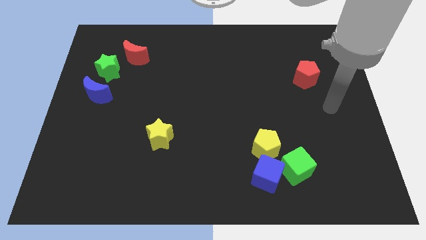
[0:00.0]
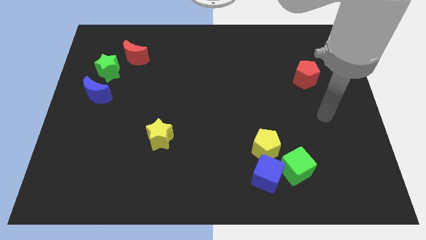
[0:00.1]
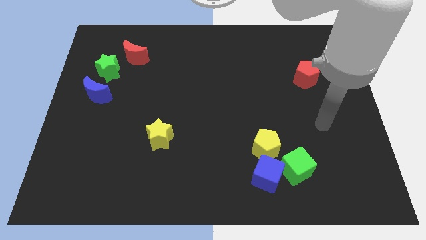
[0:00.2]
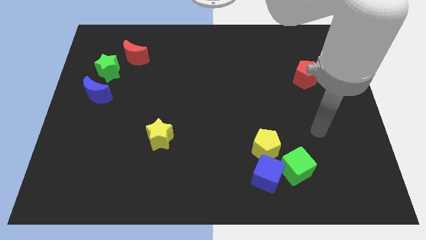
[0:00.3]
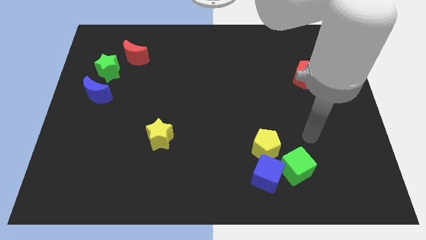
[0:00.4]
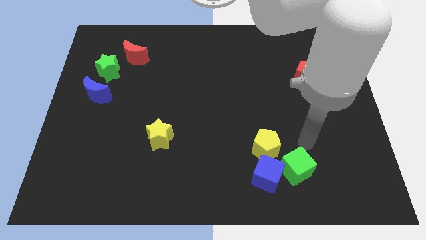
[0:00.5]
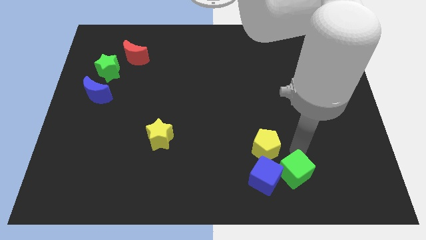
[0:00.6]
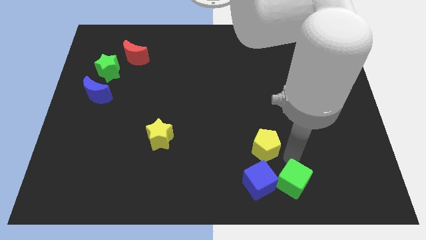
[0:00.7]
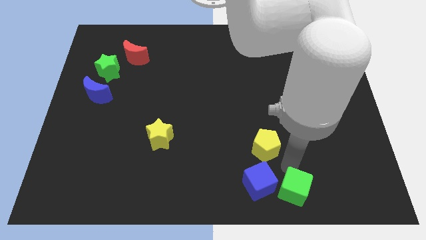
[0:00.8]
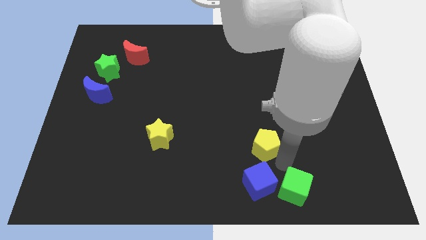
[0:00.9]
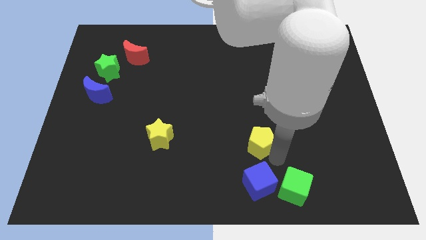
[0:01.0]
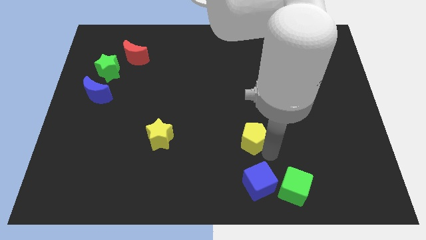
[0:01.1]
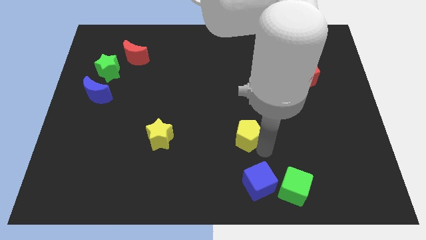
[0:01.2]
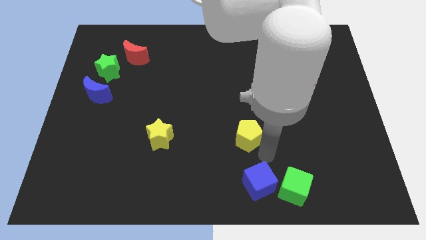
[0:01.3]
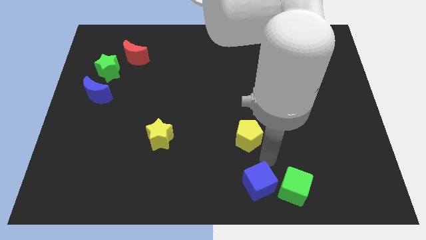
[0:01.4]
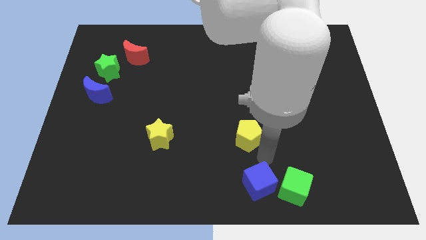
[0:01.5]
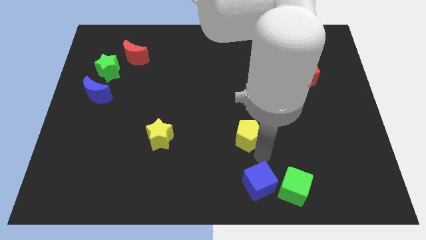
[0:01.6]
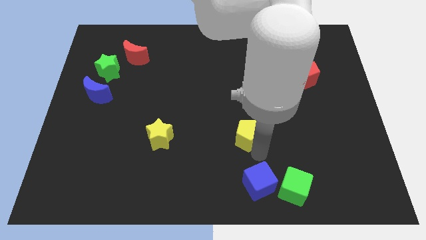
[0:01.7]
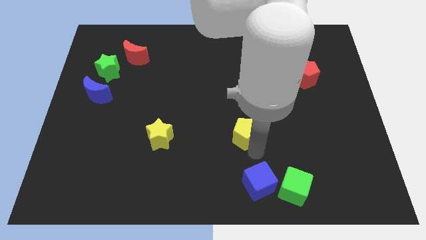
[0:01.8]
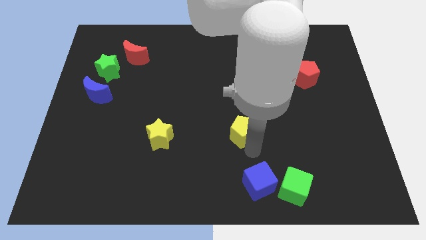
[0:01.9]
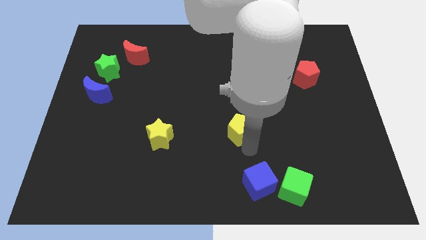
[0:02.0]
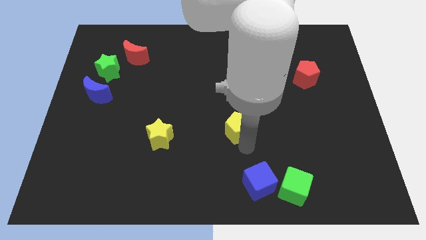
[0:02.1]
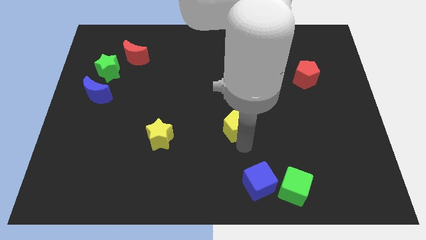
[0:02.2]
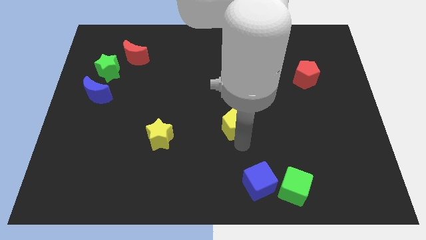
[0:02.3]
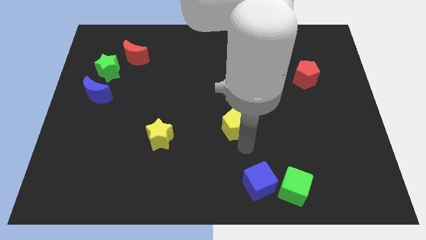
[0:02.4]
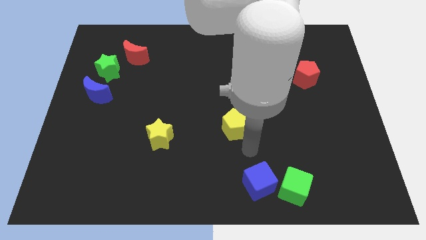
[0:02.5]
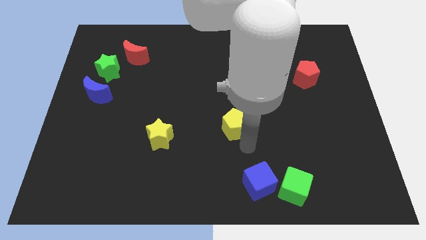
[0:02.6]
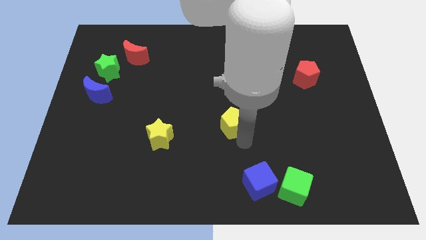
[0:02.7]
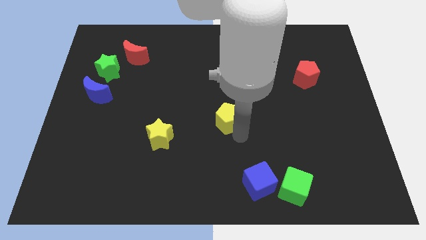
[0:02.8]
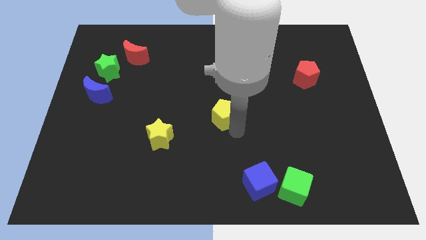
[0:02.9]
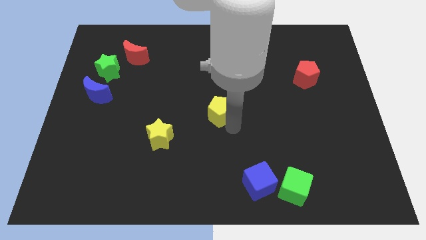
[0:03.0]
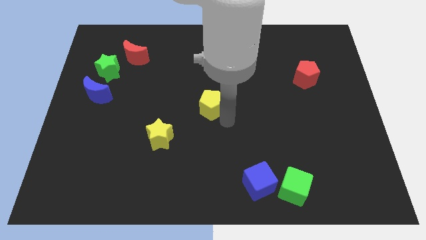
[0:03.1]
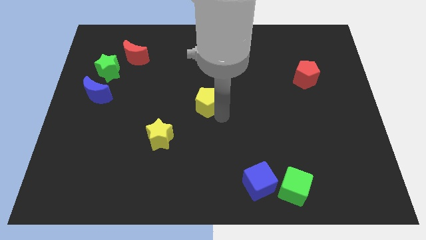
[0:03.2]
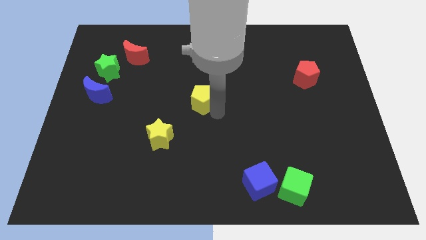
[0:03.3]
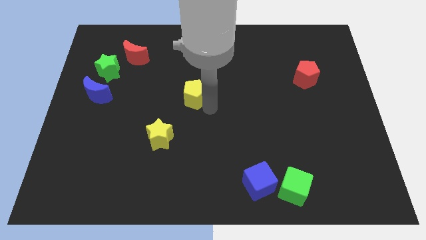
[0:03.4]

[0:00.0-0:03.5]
move the yellow pentagon up and then to the left

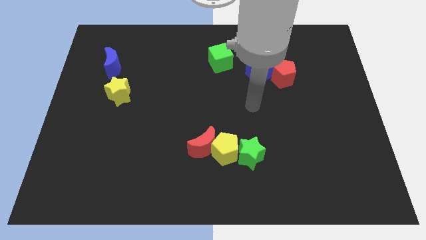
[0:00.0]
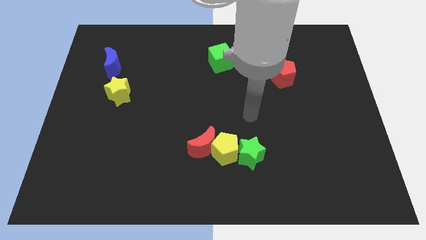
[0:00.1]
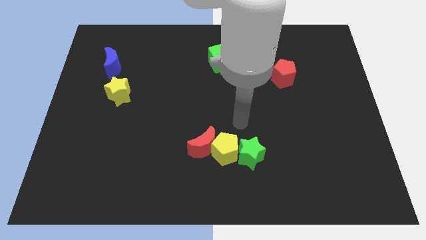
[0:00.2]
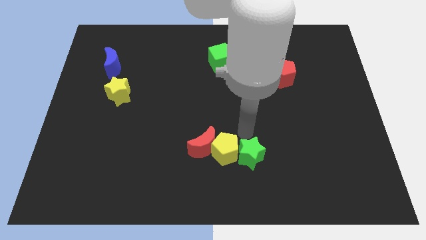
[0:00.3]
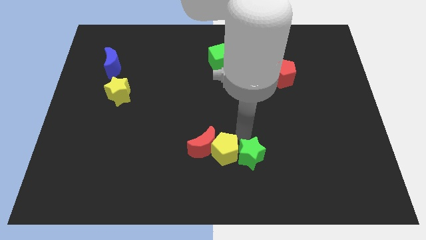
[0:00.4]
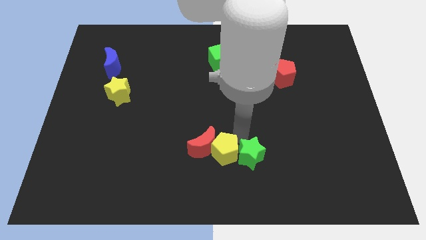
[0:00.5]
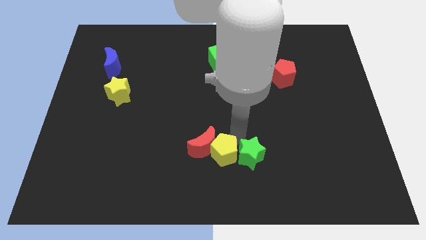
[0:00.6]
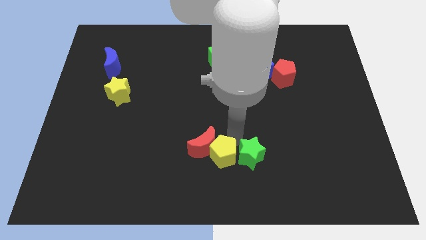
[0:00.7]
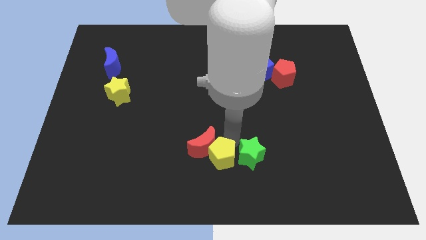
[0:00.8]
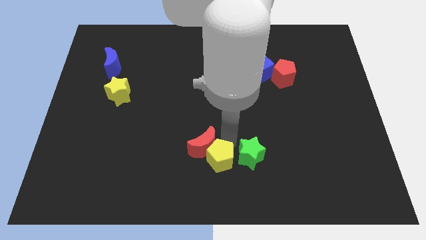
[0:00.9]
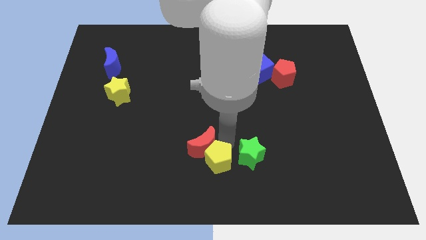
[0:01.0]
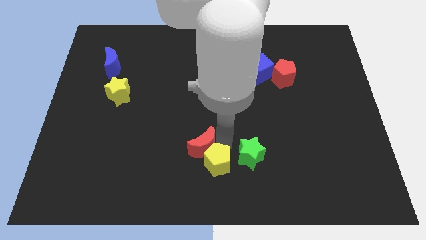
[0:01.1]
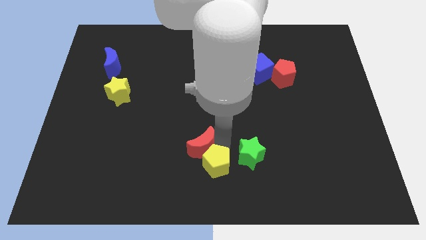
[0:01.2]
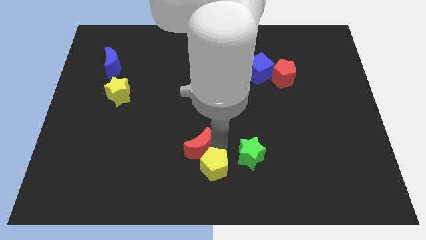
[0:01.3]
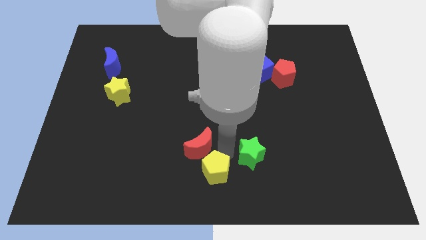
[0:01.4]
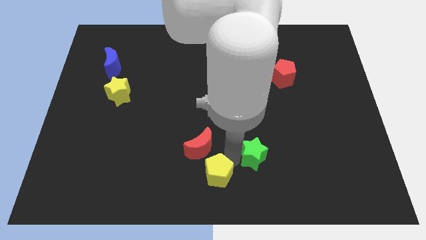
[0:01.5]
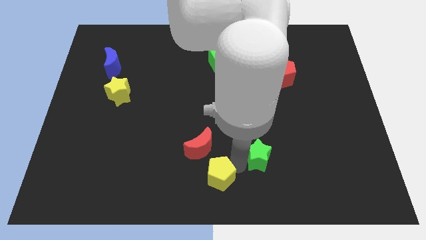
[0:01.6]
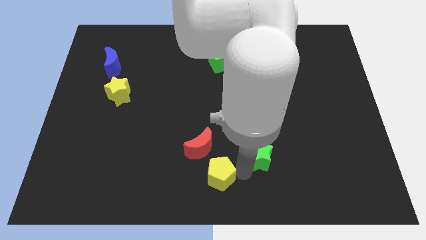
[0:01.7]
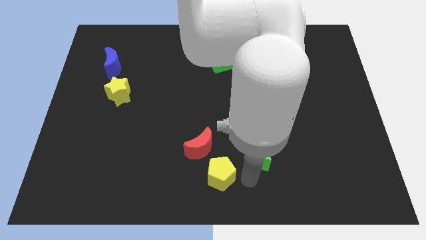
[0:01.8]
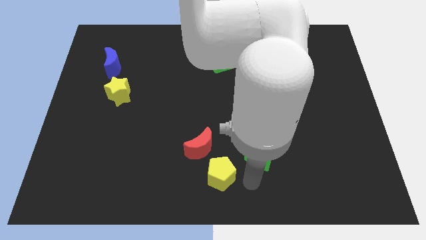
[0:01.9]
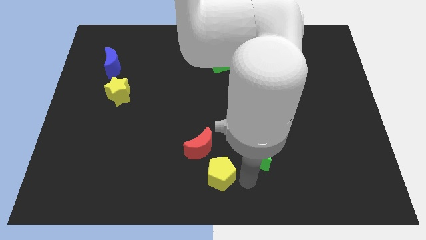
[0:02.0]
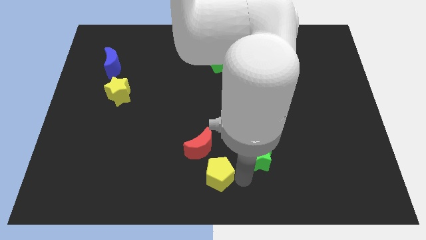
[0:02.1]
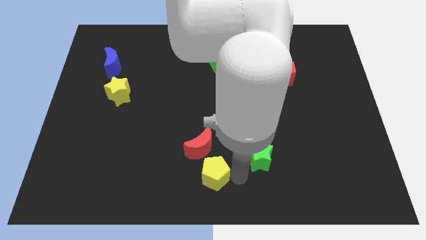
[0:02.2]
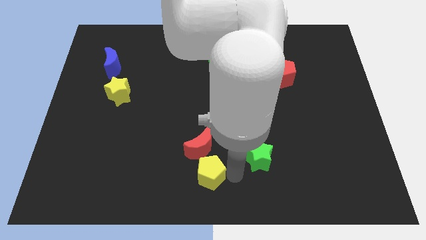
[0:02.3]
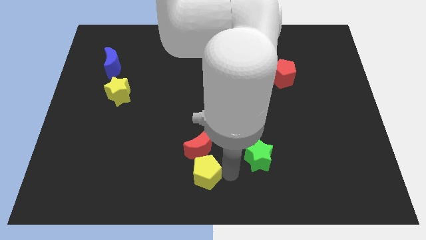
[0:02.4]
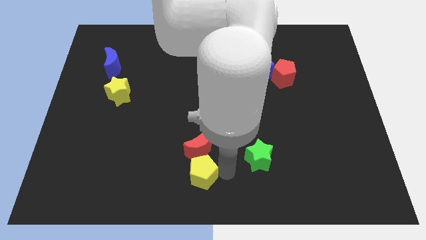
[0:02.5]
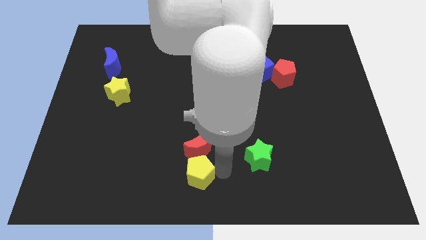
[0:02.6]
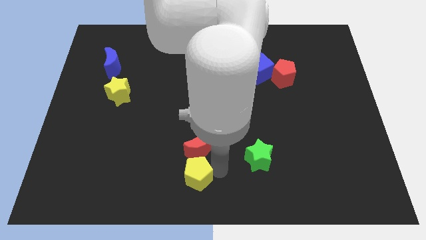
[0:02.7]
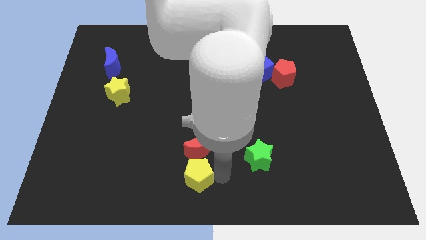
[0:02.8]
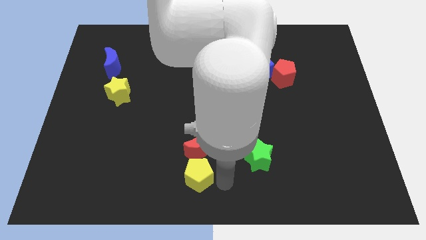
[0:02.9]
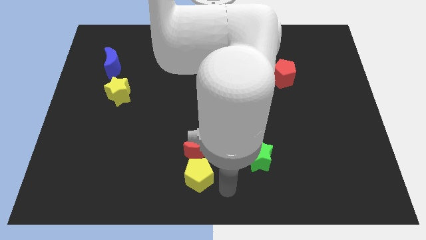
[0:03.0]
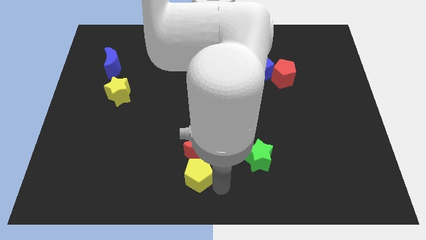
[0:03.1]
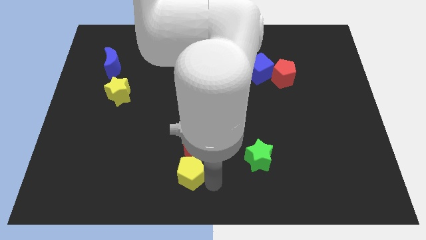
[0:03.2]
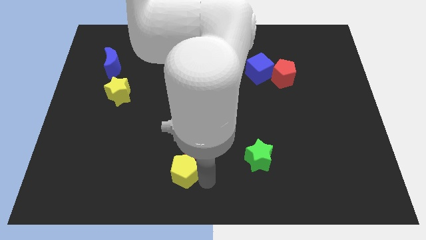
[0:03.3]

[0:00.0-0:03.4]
slide the yellow pentagon left somewhat

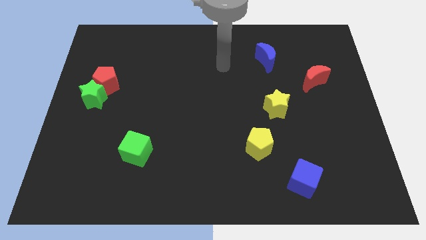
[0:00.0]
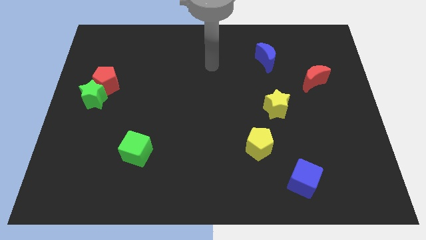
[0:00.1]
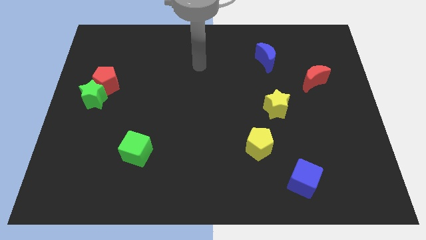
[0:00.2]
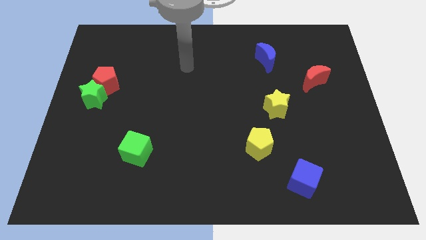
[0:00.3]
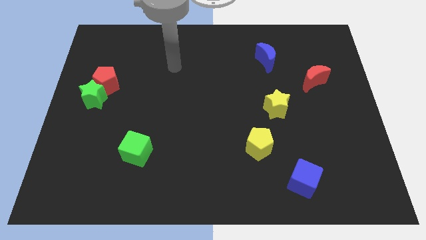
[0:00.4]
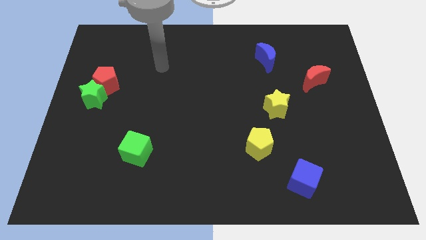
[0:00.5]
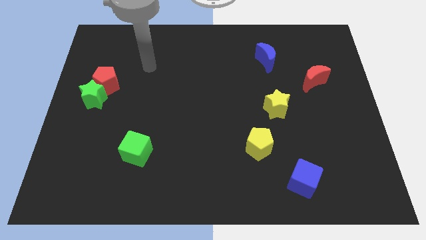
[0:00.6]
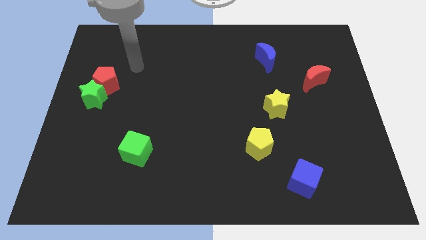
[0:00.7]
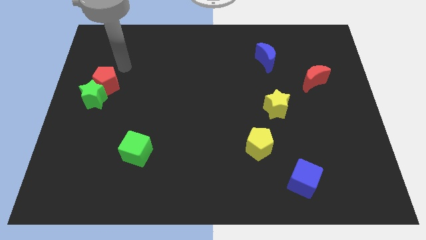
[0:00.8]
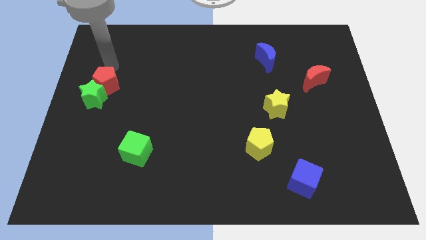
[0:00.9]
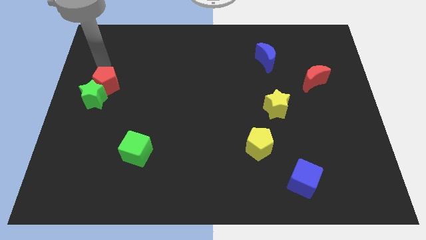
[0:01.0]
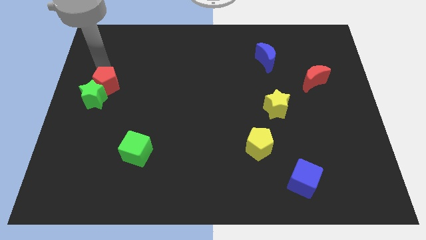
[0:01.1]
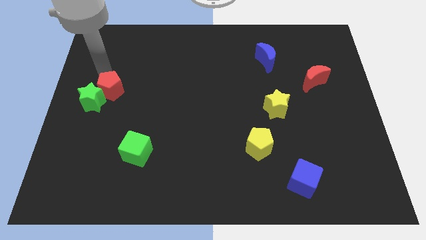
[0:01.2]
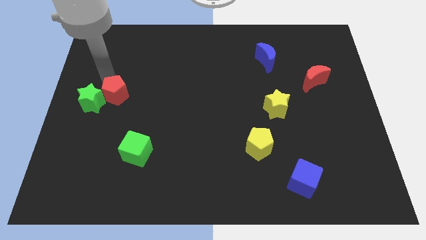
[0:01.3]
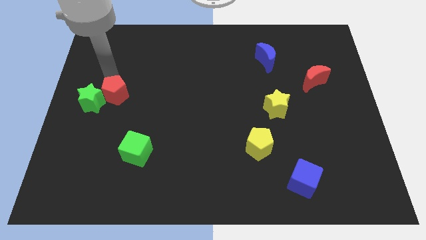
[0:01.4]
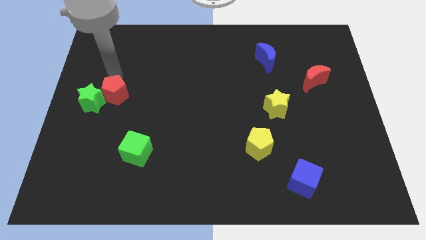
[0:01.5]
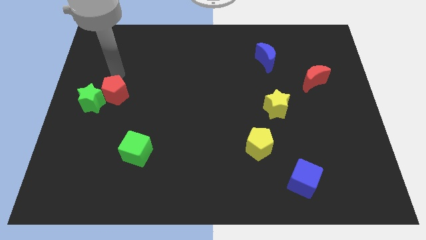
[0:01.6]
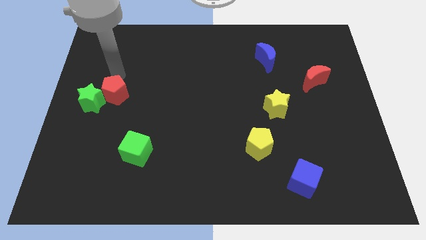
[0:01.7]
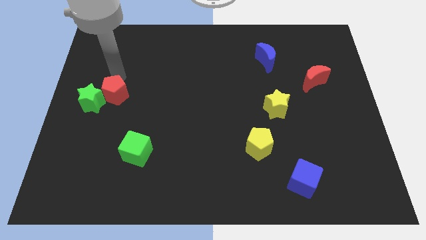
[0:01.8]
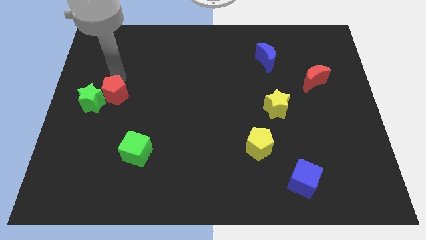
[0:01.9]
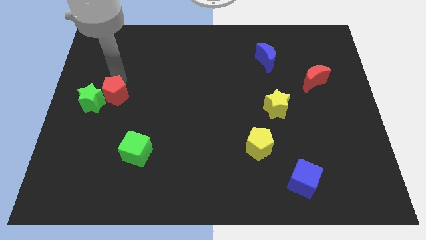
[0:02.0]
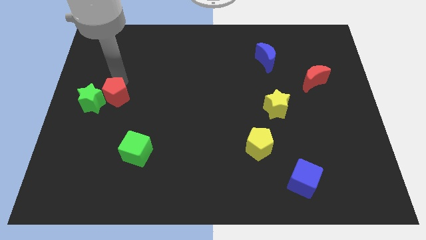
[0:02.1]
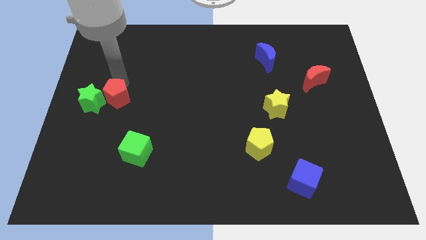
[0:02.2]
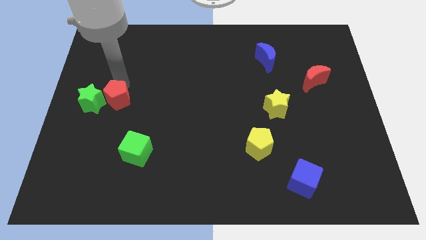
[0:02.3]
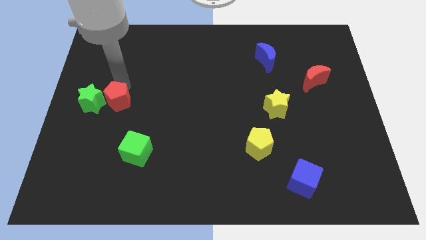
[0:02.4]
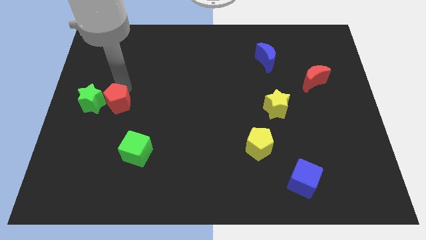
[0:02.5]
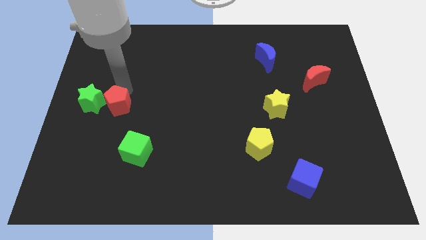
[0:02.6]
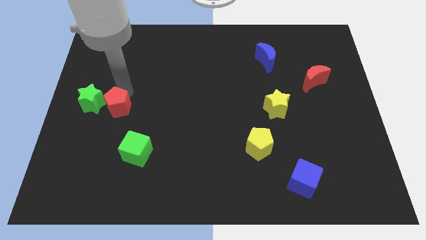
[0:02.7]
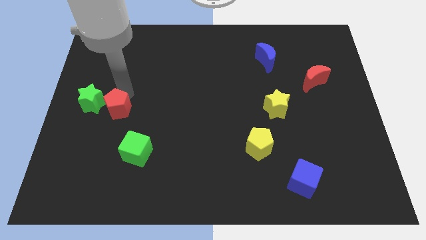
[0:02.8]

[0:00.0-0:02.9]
slide the red pentagon down slightly
